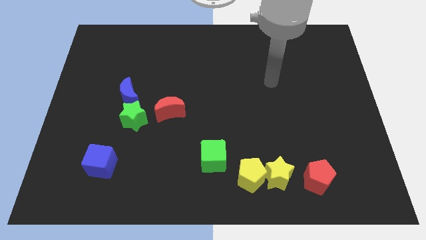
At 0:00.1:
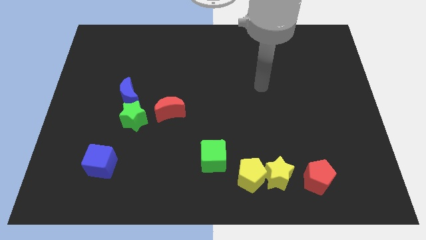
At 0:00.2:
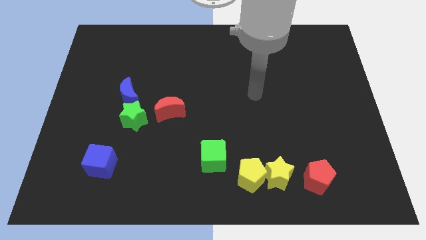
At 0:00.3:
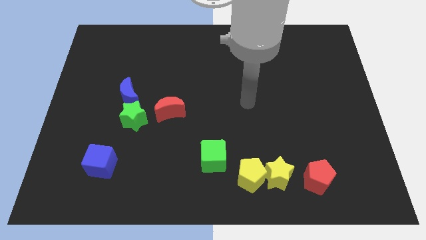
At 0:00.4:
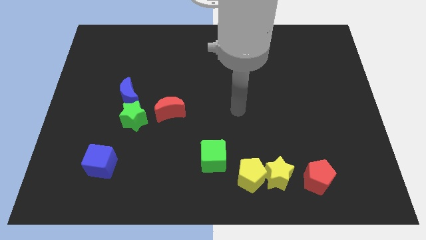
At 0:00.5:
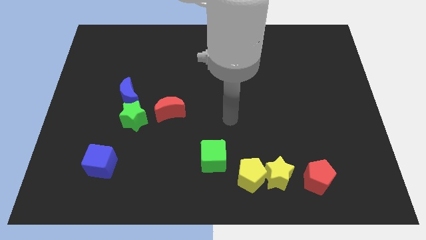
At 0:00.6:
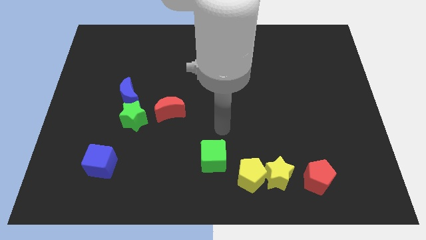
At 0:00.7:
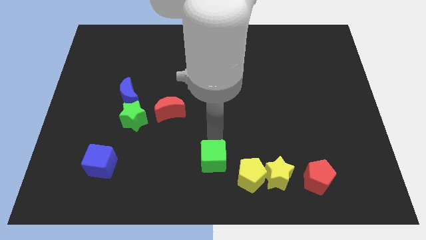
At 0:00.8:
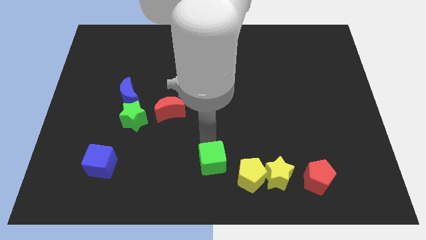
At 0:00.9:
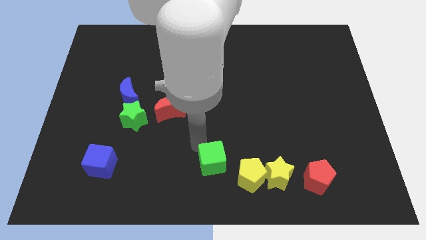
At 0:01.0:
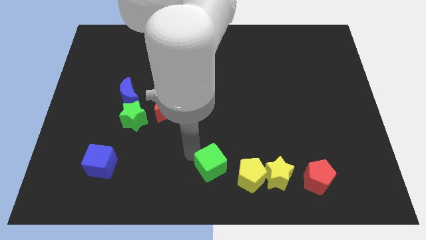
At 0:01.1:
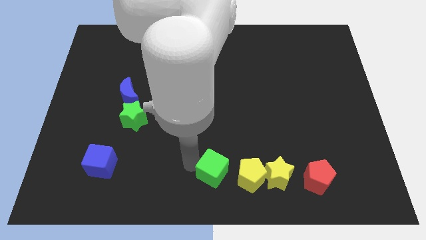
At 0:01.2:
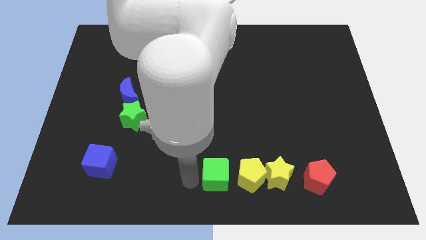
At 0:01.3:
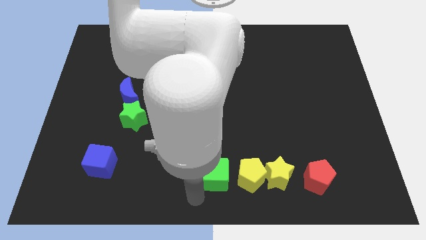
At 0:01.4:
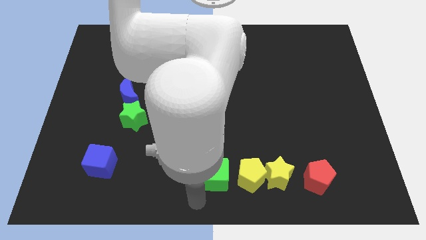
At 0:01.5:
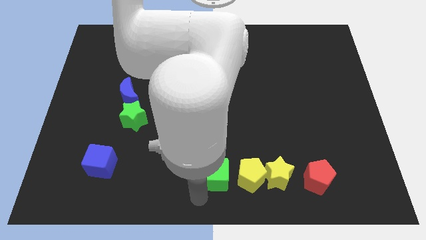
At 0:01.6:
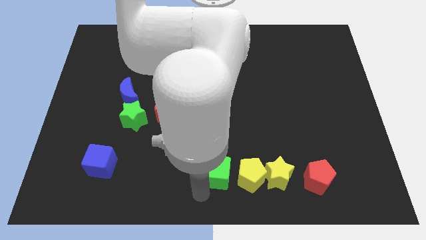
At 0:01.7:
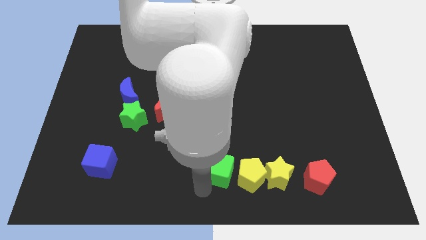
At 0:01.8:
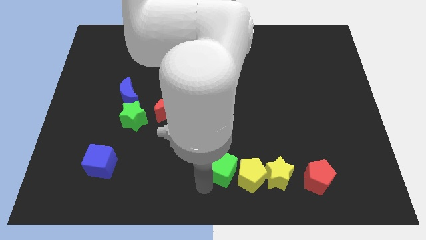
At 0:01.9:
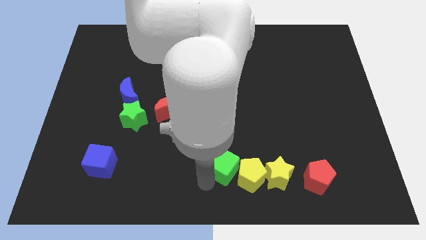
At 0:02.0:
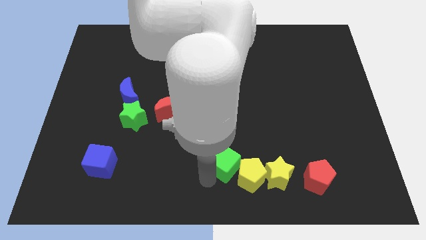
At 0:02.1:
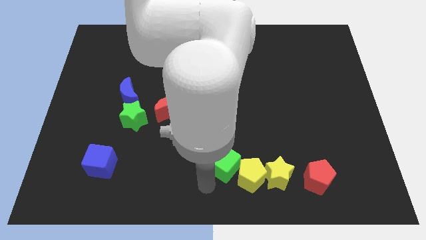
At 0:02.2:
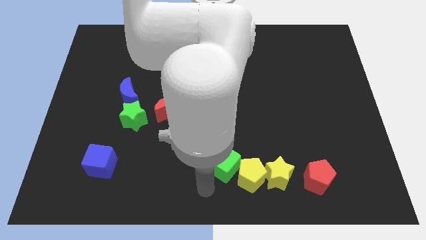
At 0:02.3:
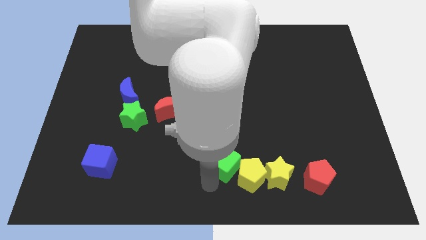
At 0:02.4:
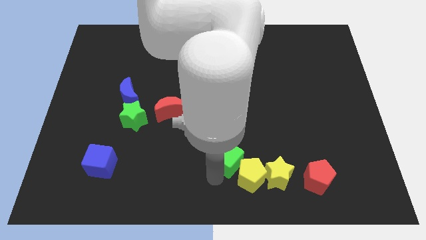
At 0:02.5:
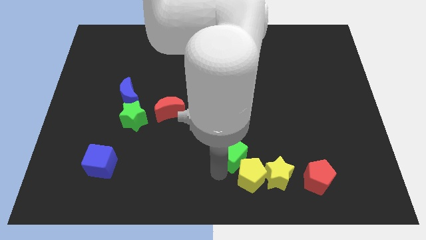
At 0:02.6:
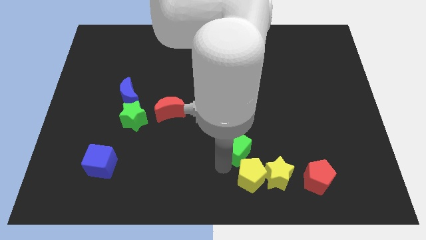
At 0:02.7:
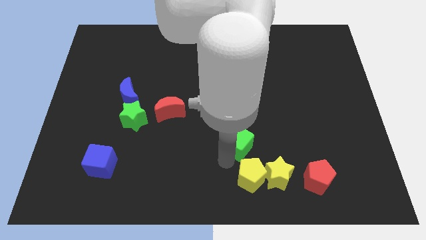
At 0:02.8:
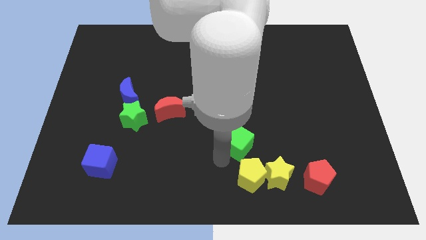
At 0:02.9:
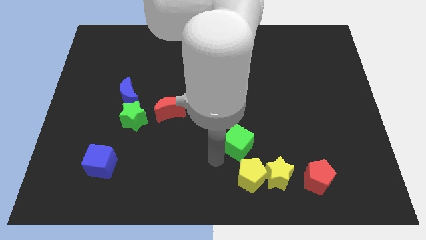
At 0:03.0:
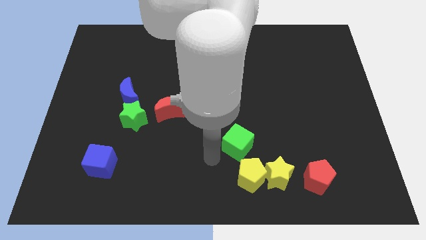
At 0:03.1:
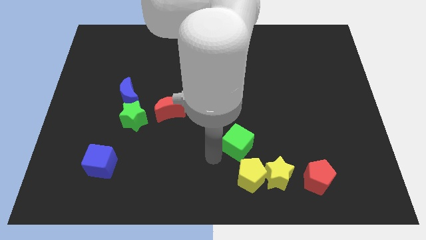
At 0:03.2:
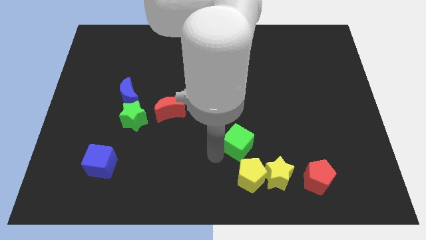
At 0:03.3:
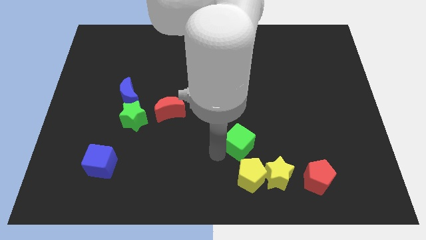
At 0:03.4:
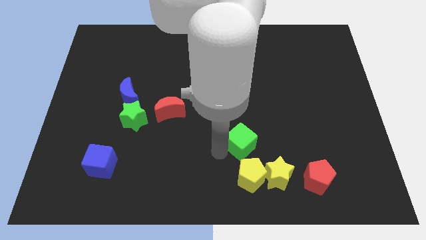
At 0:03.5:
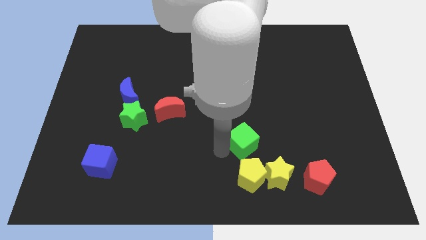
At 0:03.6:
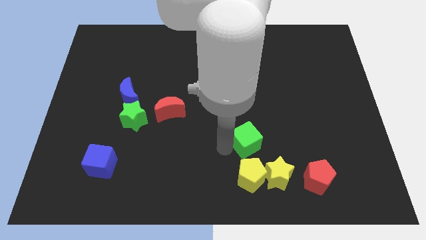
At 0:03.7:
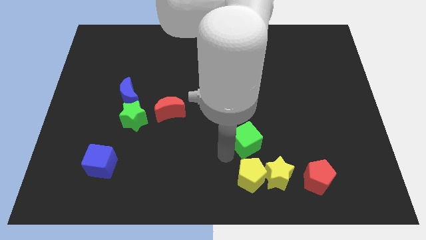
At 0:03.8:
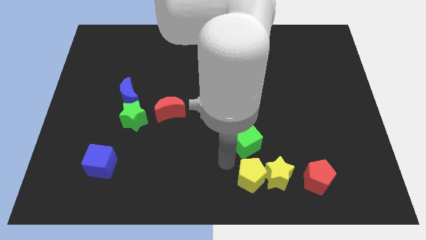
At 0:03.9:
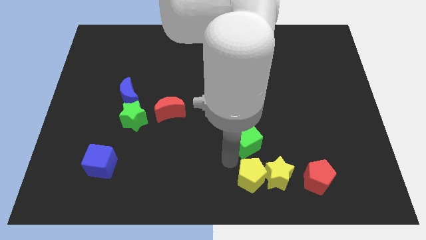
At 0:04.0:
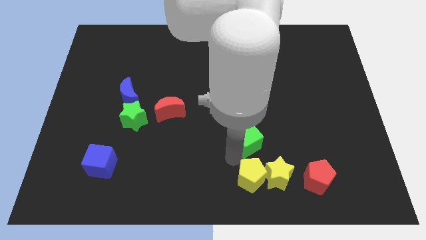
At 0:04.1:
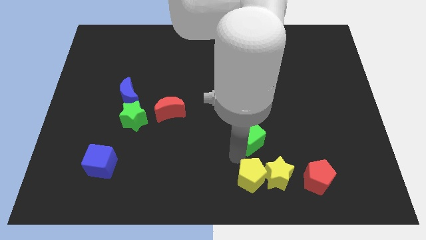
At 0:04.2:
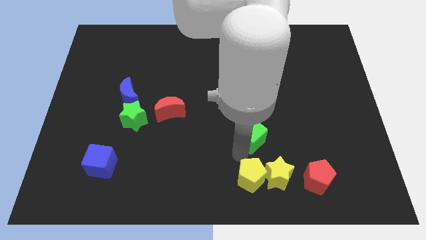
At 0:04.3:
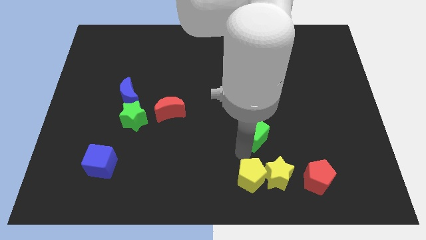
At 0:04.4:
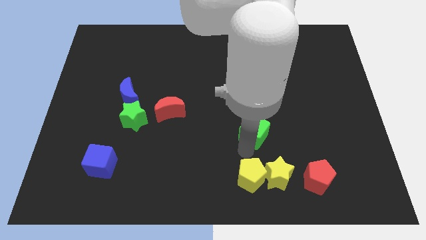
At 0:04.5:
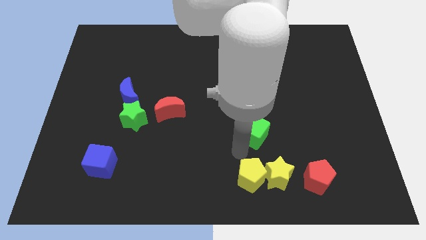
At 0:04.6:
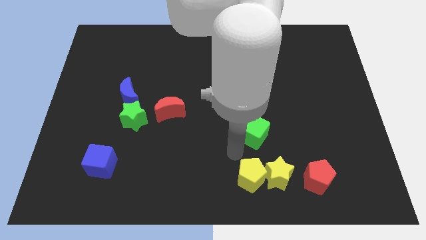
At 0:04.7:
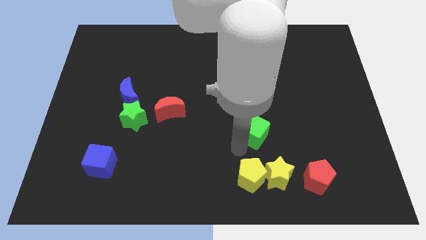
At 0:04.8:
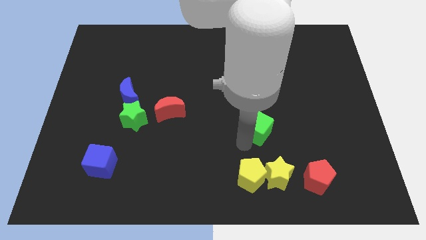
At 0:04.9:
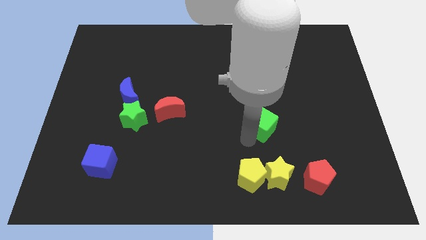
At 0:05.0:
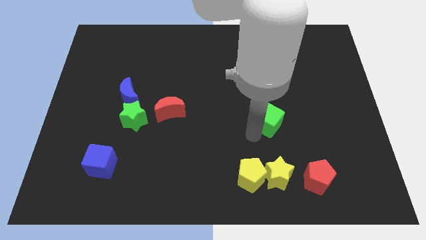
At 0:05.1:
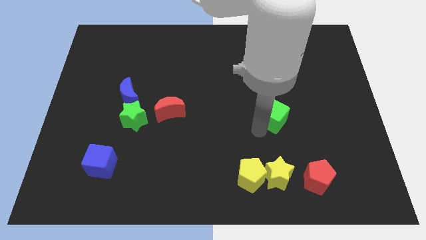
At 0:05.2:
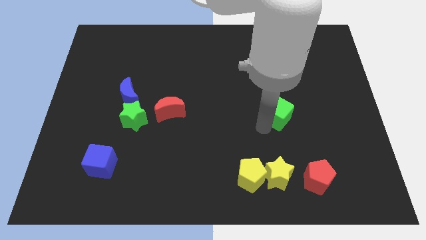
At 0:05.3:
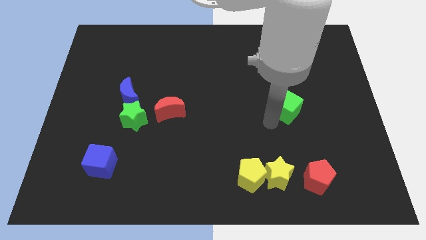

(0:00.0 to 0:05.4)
slide the green cube diagonally upwards and right

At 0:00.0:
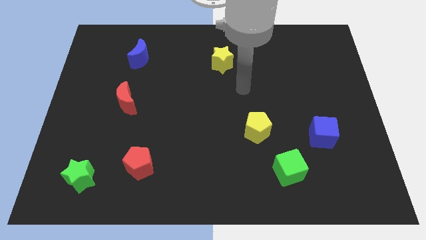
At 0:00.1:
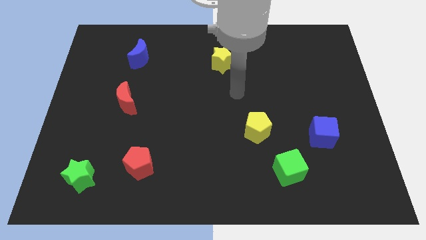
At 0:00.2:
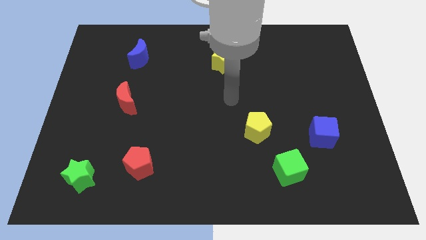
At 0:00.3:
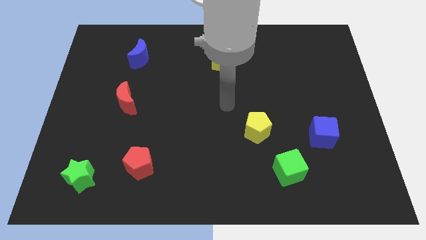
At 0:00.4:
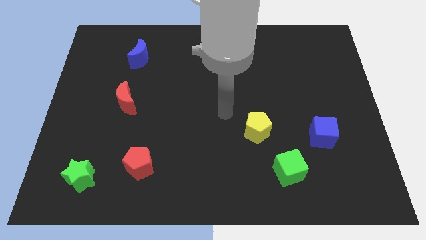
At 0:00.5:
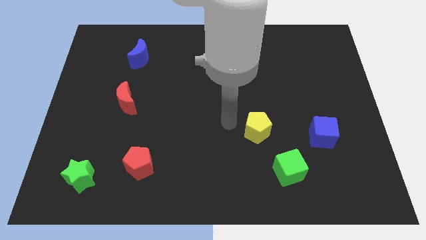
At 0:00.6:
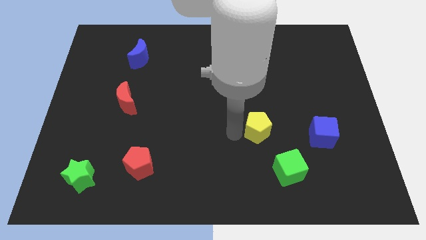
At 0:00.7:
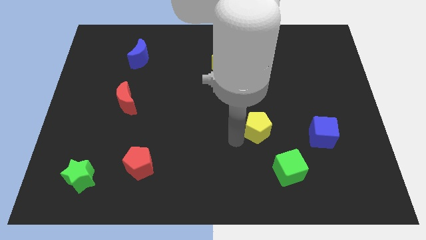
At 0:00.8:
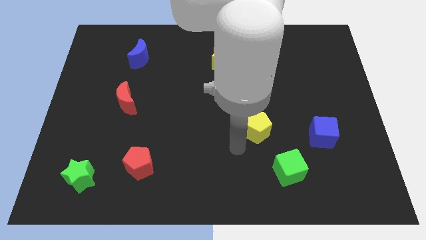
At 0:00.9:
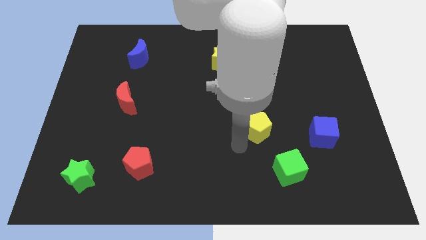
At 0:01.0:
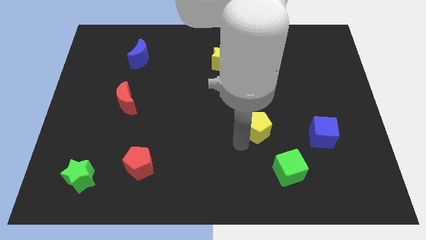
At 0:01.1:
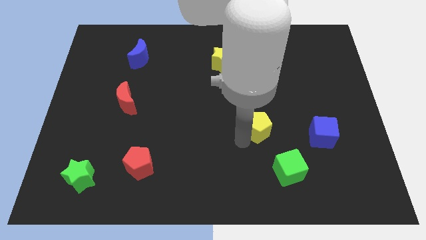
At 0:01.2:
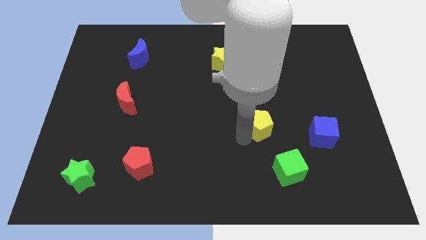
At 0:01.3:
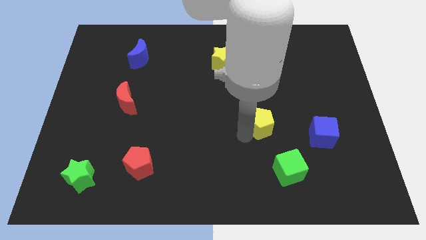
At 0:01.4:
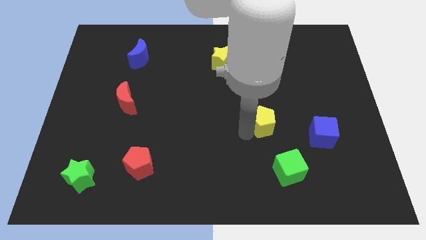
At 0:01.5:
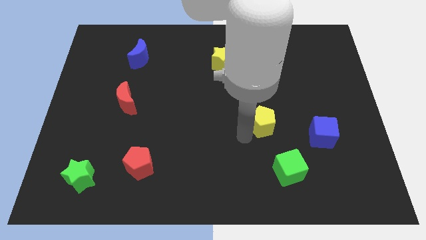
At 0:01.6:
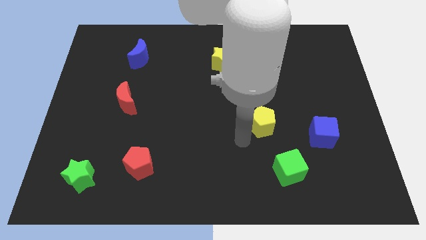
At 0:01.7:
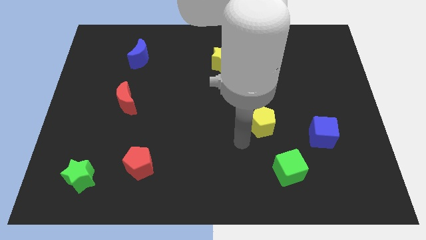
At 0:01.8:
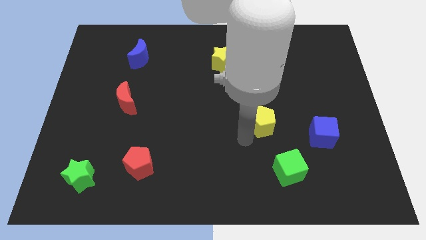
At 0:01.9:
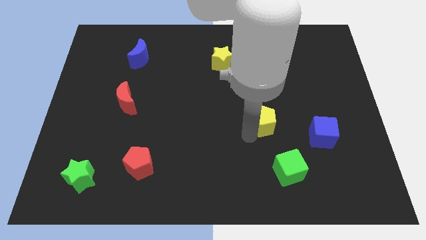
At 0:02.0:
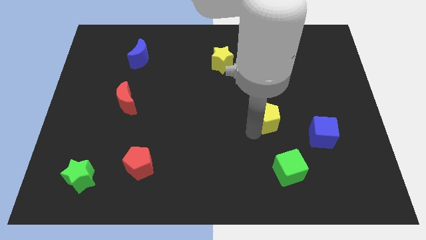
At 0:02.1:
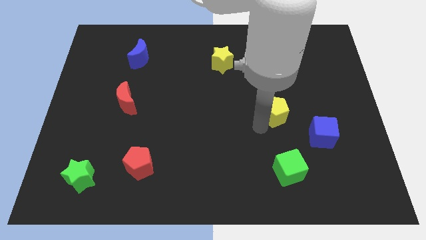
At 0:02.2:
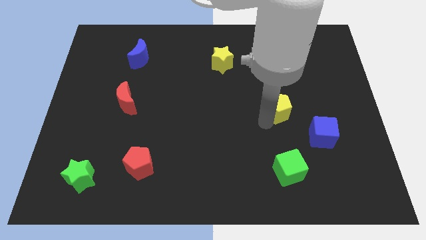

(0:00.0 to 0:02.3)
slide the yellow pentagon upwards and to the right diagonally a little
